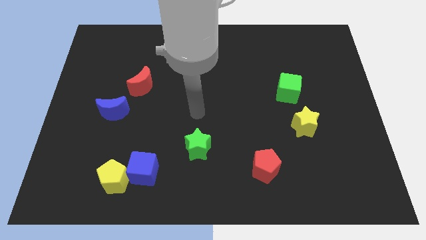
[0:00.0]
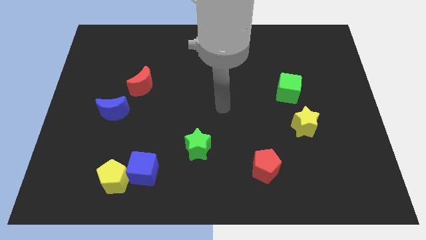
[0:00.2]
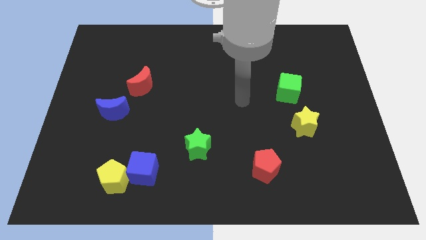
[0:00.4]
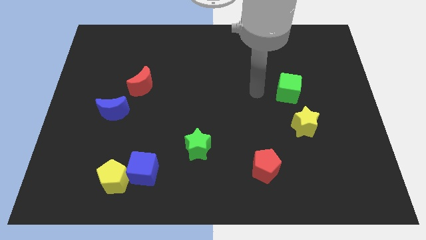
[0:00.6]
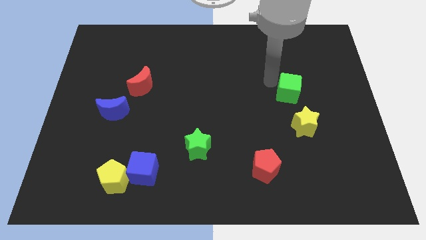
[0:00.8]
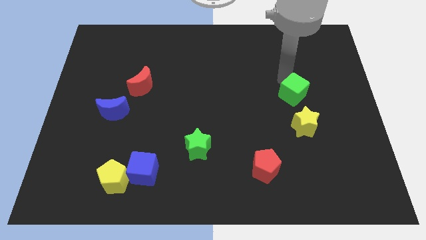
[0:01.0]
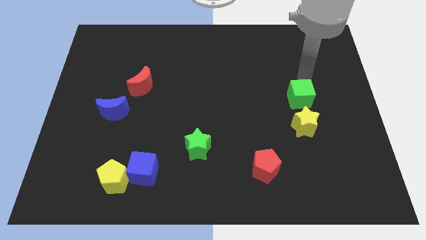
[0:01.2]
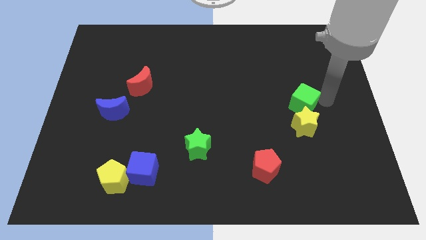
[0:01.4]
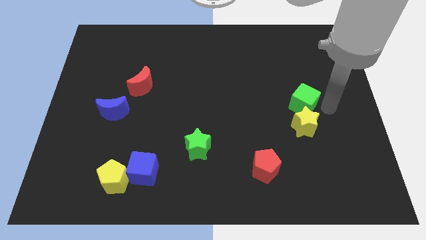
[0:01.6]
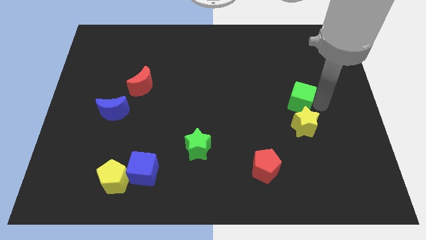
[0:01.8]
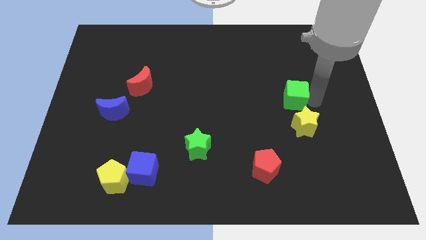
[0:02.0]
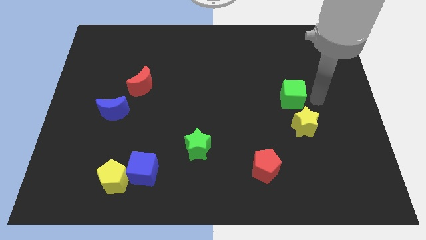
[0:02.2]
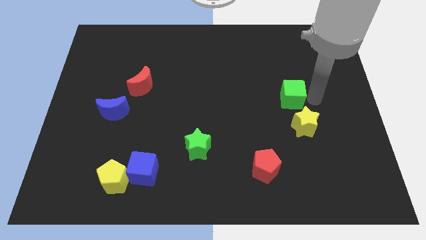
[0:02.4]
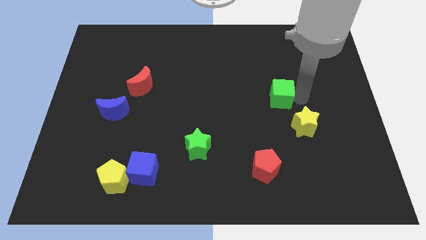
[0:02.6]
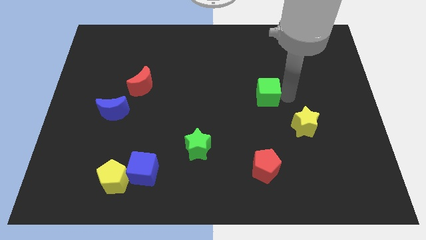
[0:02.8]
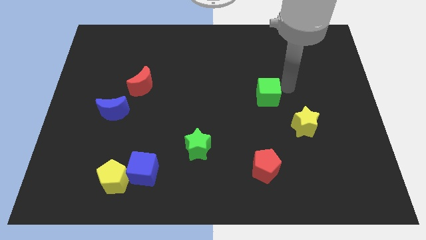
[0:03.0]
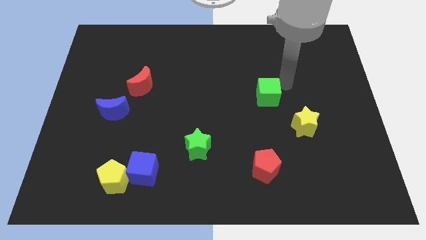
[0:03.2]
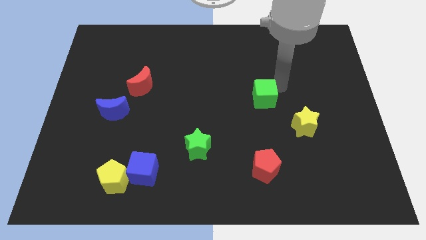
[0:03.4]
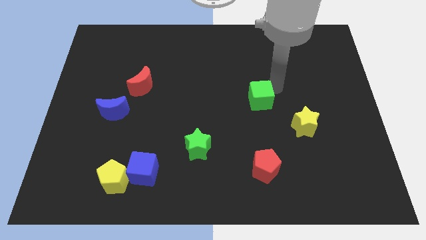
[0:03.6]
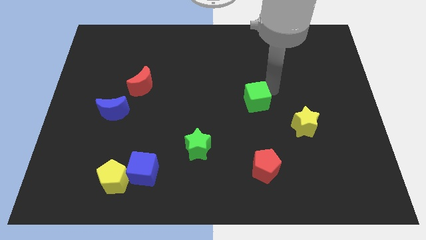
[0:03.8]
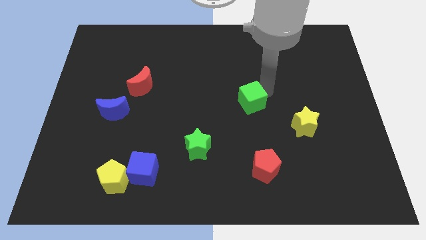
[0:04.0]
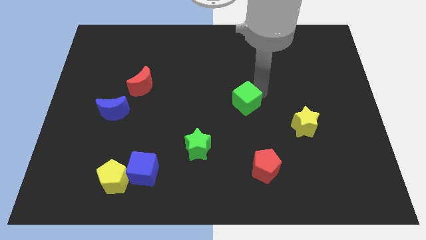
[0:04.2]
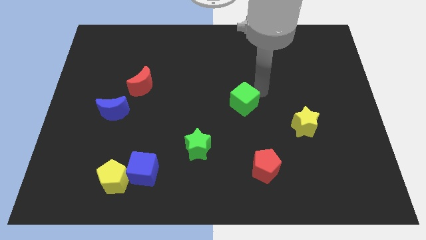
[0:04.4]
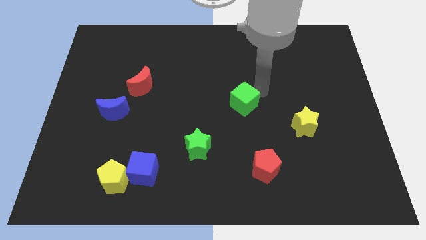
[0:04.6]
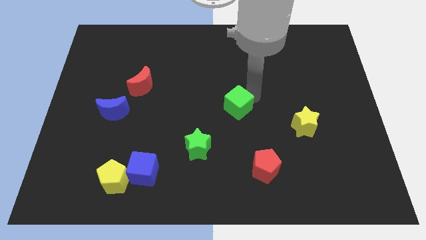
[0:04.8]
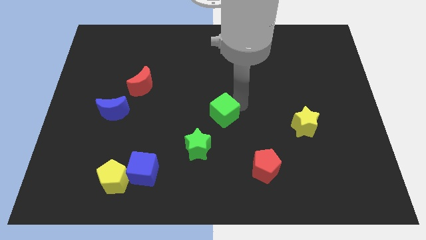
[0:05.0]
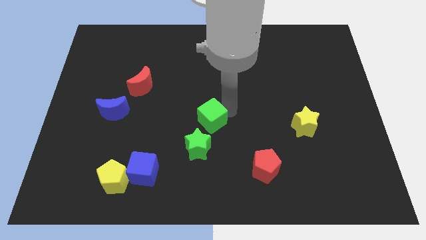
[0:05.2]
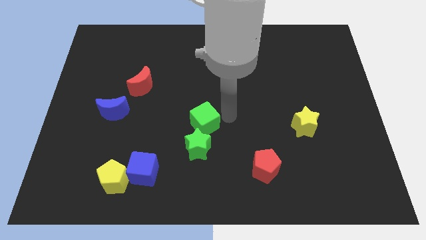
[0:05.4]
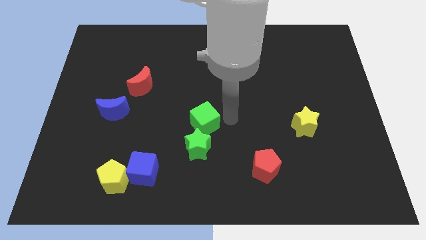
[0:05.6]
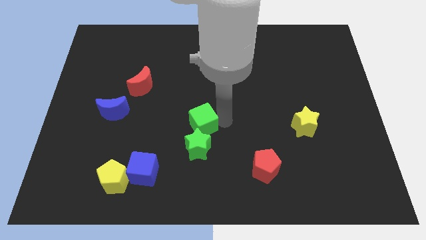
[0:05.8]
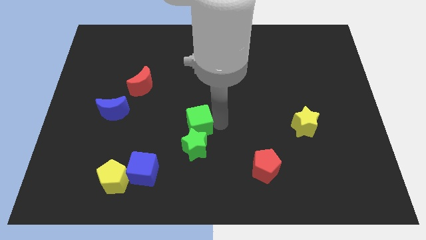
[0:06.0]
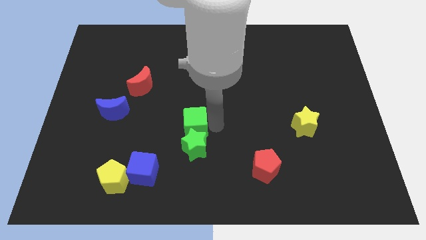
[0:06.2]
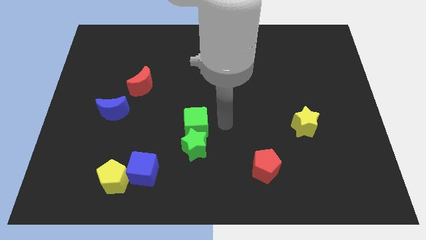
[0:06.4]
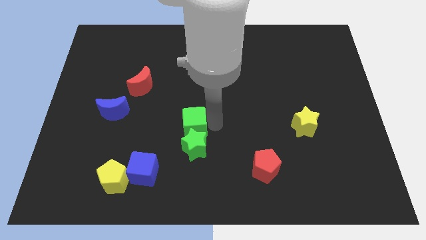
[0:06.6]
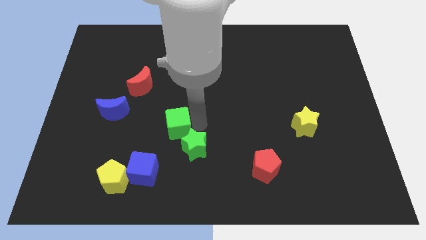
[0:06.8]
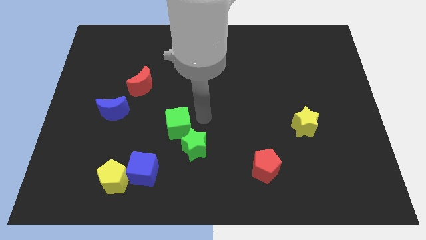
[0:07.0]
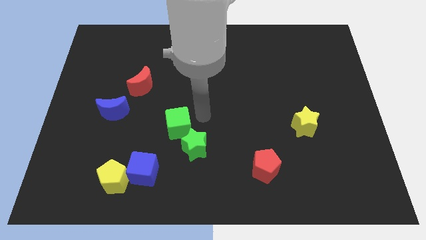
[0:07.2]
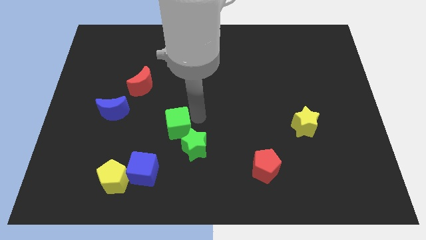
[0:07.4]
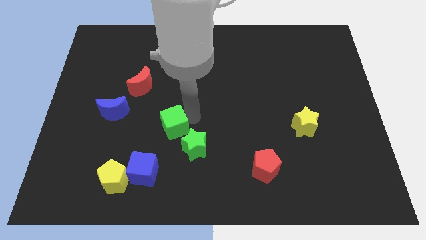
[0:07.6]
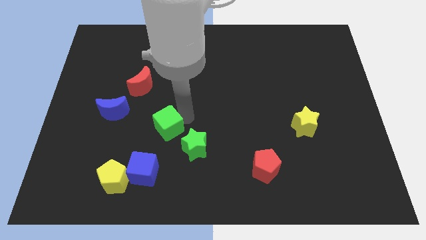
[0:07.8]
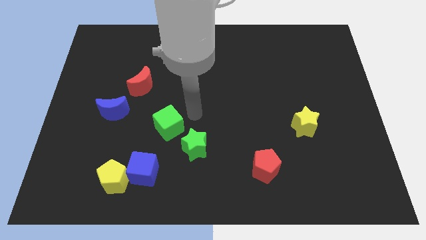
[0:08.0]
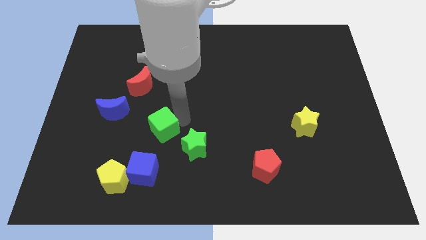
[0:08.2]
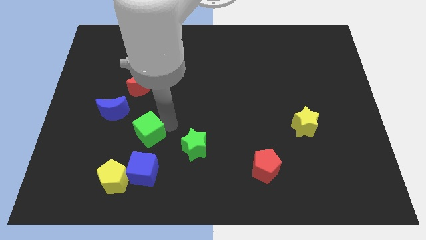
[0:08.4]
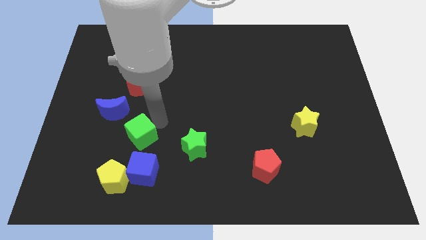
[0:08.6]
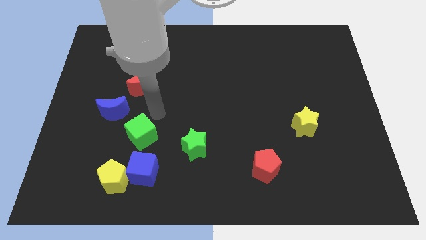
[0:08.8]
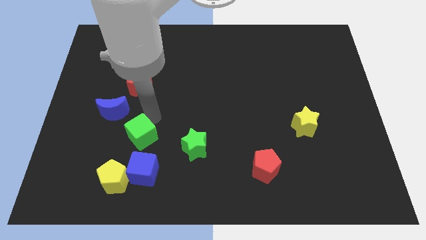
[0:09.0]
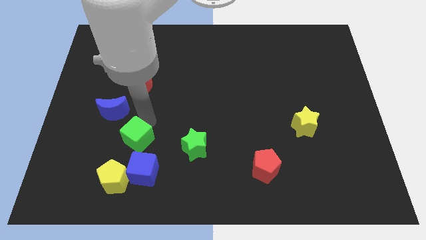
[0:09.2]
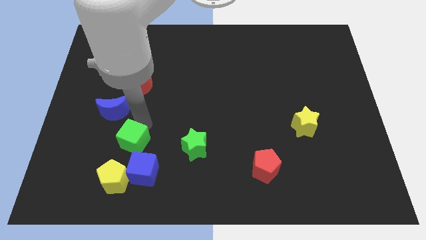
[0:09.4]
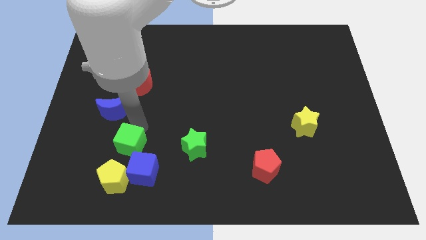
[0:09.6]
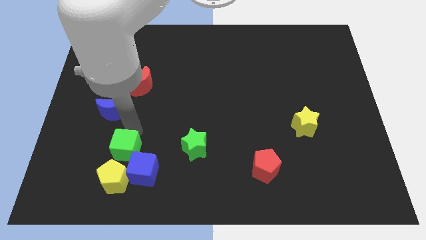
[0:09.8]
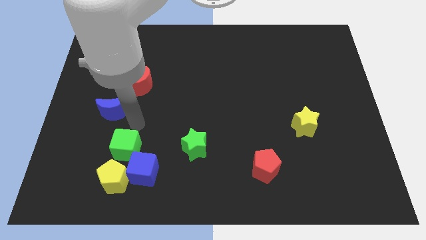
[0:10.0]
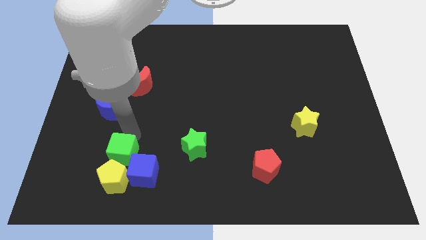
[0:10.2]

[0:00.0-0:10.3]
move the green cube to the yellow pentagon

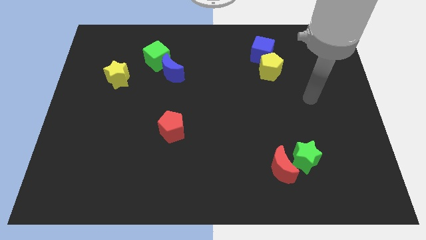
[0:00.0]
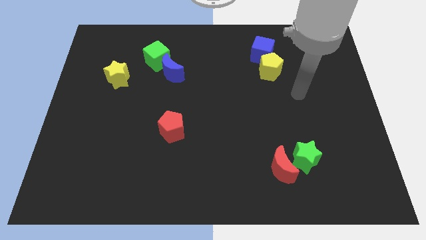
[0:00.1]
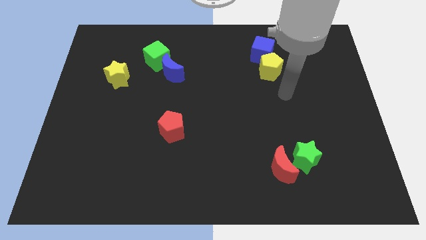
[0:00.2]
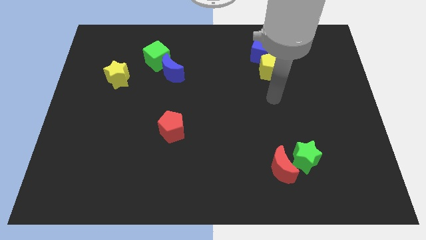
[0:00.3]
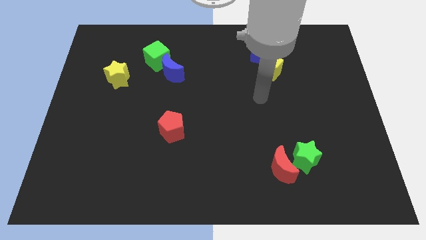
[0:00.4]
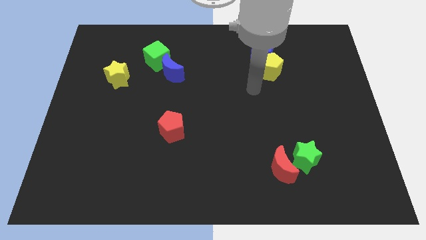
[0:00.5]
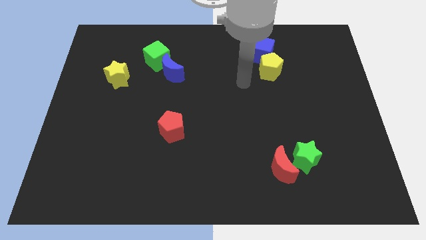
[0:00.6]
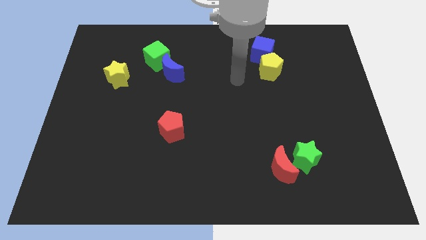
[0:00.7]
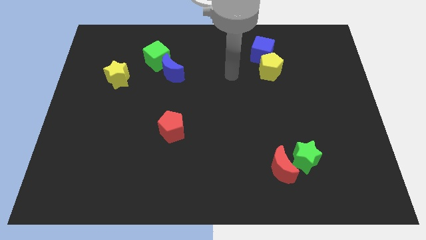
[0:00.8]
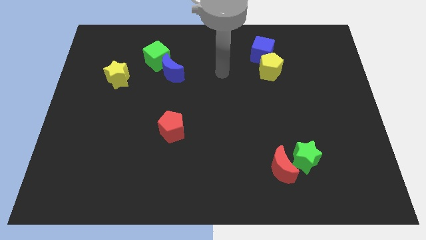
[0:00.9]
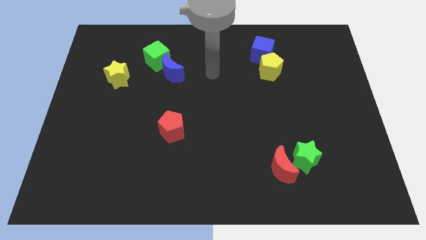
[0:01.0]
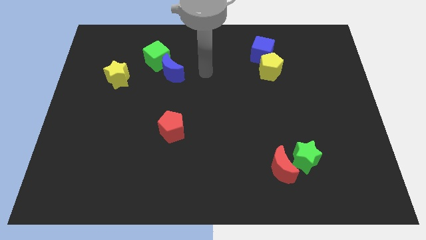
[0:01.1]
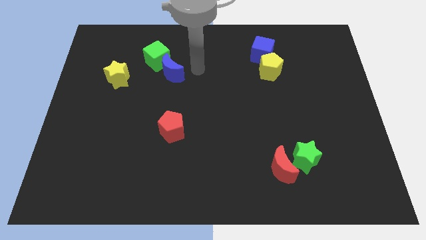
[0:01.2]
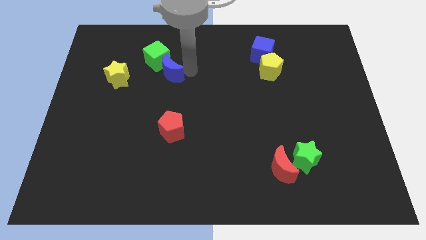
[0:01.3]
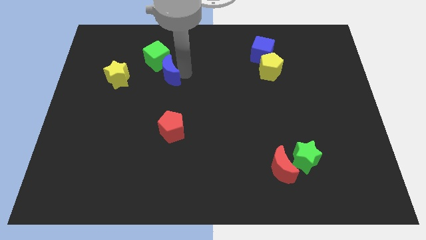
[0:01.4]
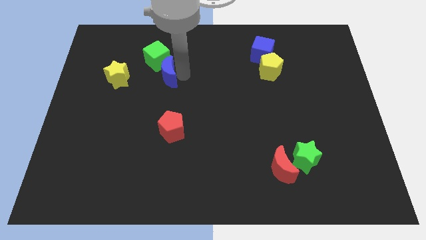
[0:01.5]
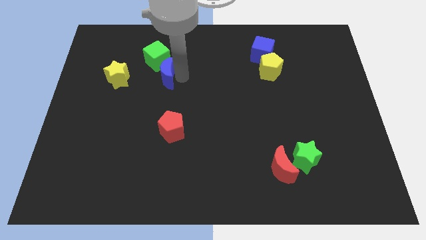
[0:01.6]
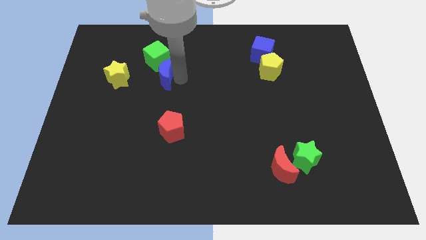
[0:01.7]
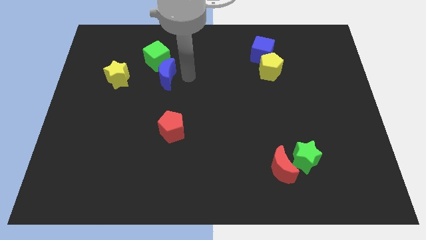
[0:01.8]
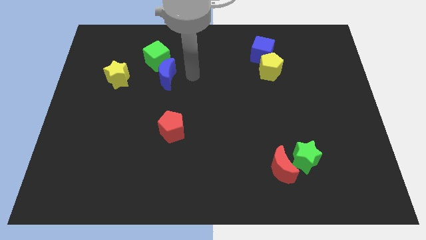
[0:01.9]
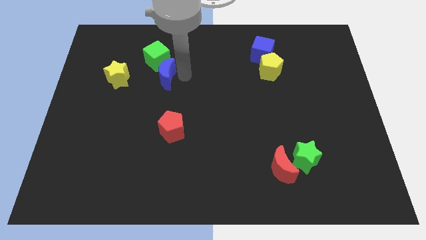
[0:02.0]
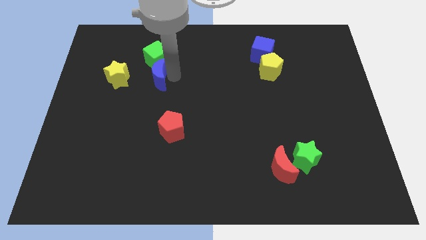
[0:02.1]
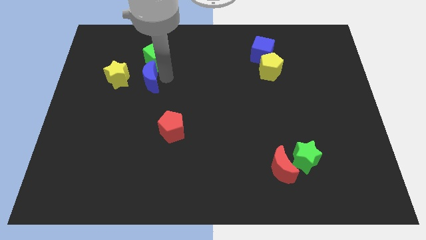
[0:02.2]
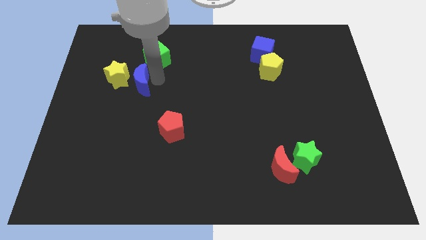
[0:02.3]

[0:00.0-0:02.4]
push the blue moon towards the yellow star
